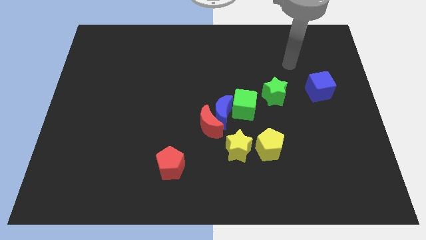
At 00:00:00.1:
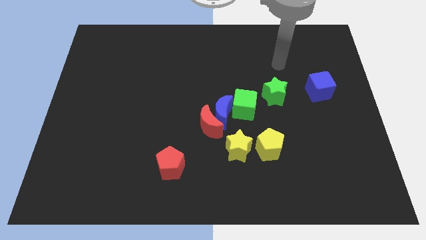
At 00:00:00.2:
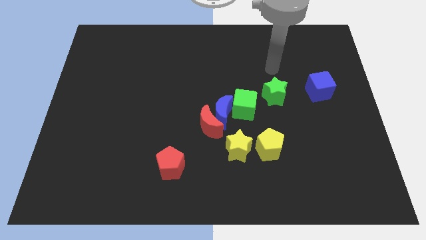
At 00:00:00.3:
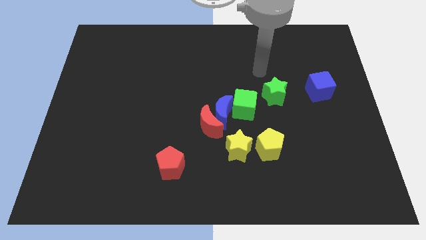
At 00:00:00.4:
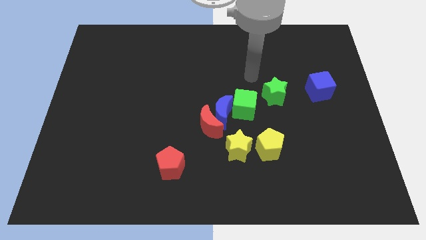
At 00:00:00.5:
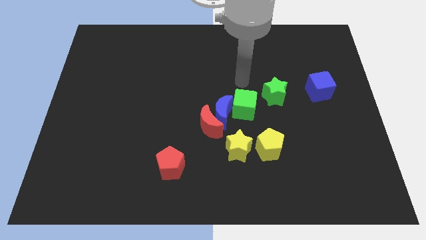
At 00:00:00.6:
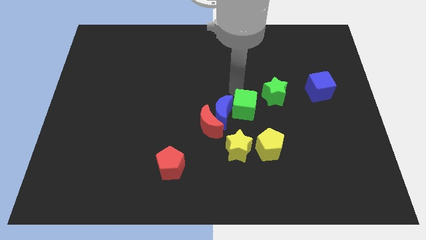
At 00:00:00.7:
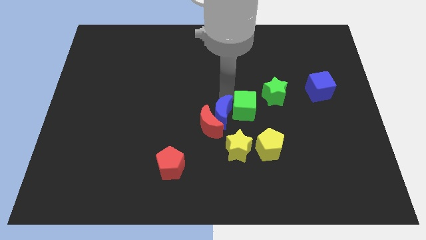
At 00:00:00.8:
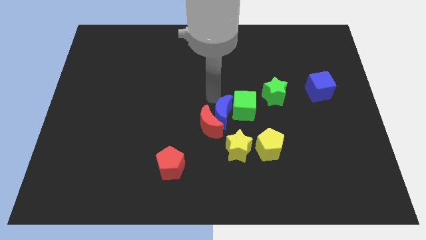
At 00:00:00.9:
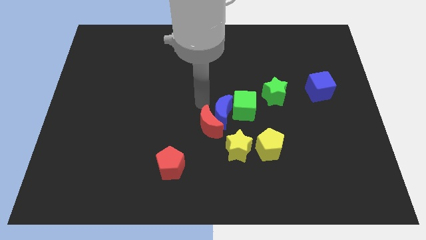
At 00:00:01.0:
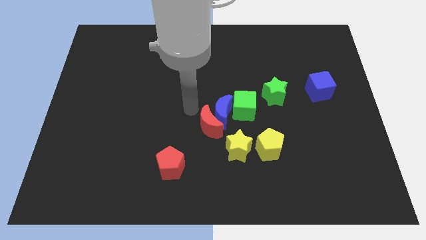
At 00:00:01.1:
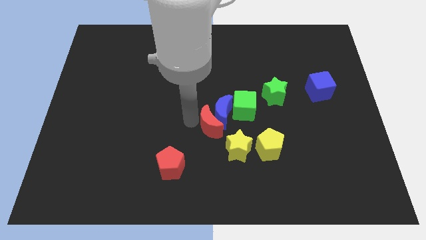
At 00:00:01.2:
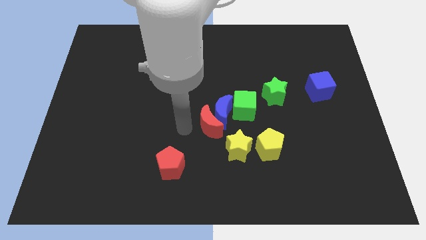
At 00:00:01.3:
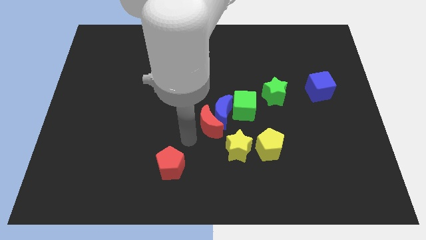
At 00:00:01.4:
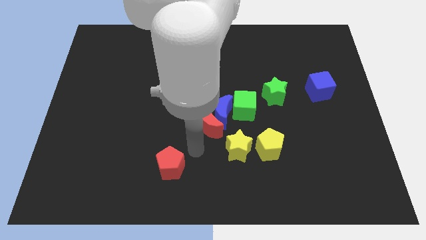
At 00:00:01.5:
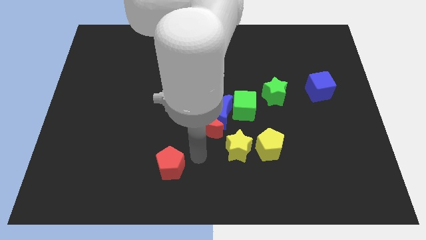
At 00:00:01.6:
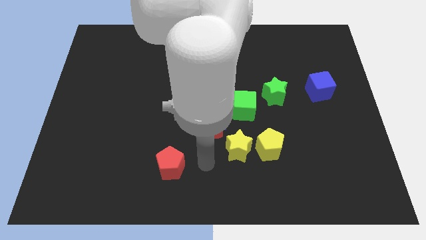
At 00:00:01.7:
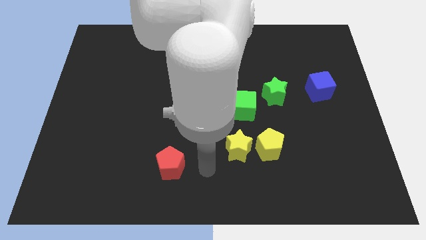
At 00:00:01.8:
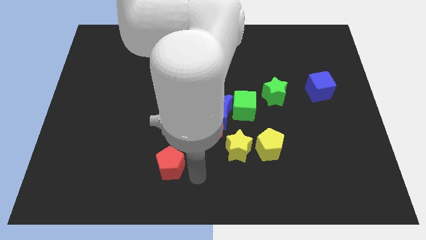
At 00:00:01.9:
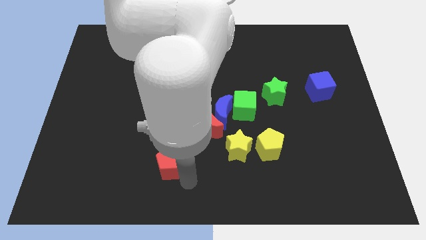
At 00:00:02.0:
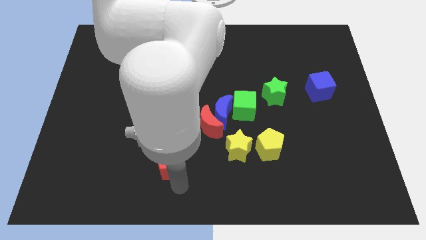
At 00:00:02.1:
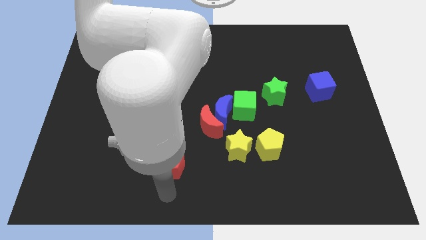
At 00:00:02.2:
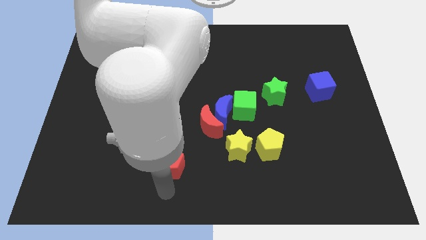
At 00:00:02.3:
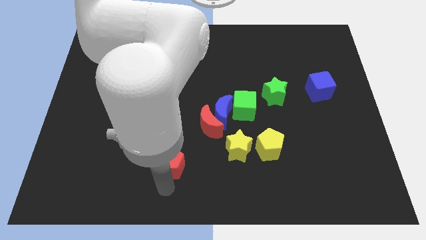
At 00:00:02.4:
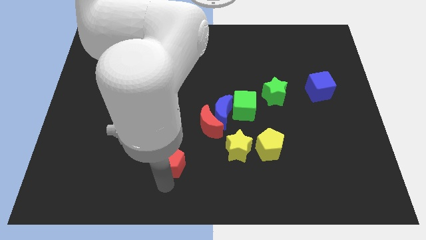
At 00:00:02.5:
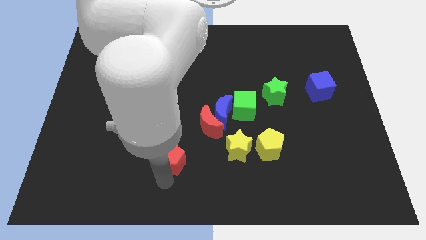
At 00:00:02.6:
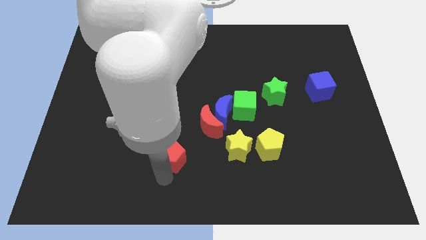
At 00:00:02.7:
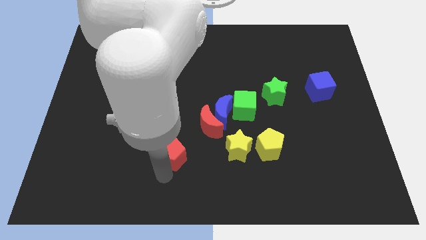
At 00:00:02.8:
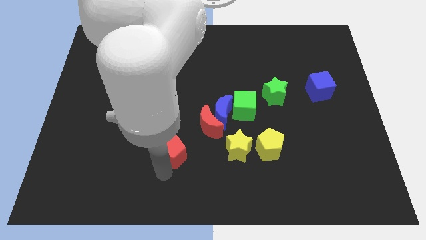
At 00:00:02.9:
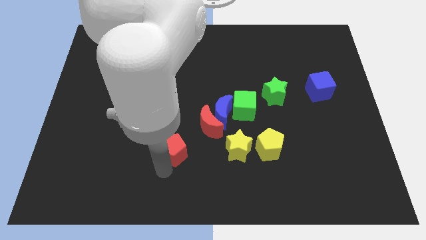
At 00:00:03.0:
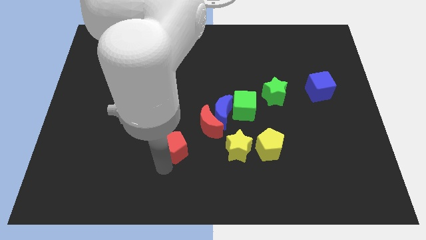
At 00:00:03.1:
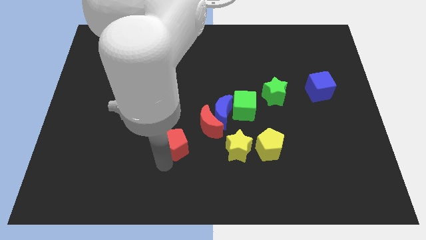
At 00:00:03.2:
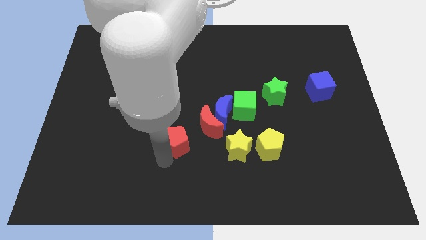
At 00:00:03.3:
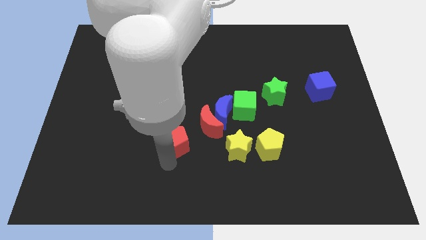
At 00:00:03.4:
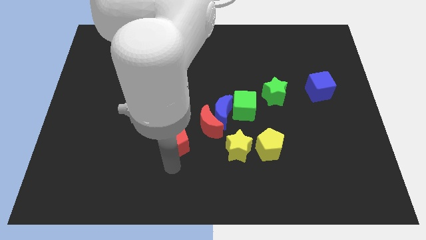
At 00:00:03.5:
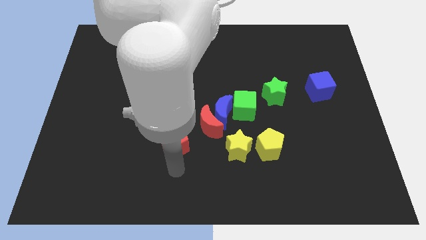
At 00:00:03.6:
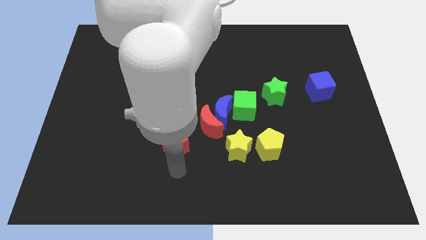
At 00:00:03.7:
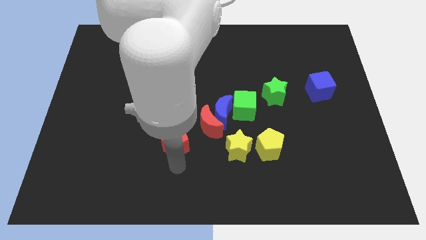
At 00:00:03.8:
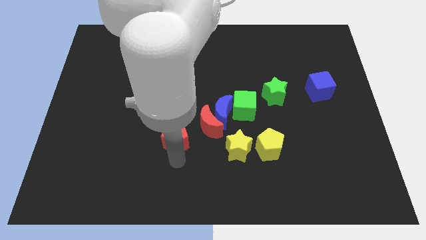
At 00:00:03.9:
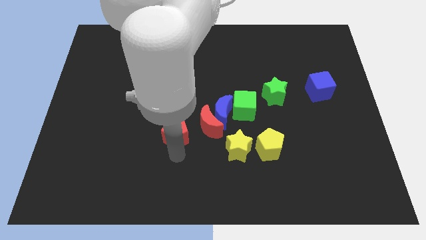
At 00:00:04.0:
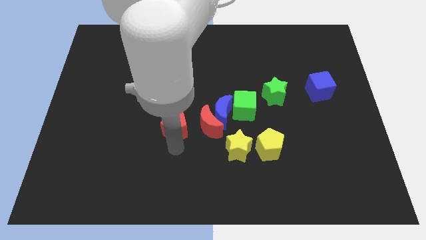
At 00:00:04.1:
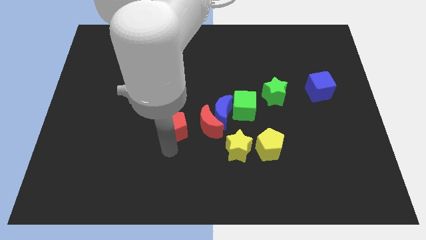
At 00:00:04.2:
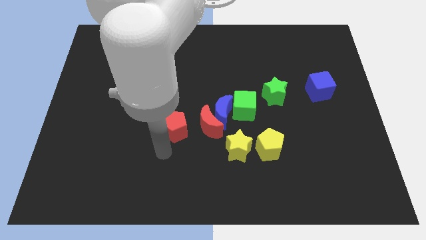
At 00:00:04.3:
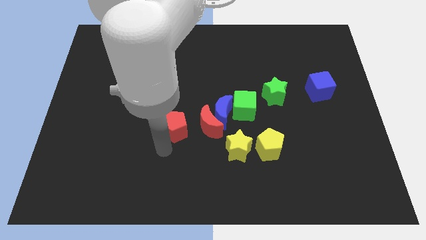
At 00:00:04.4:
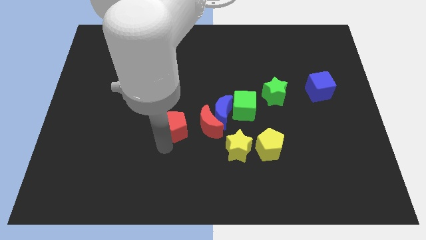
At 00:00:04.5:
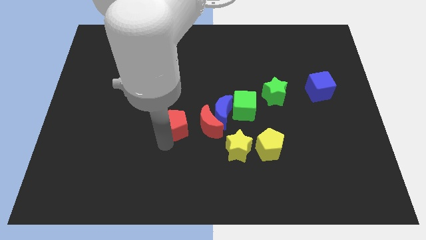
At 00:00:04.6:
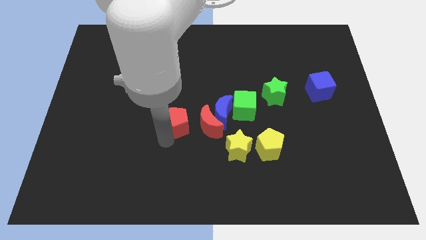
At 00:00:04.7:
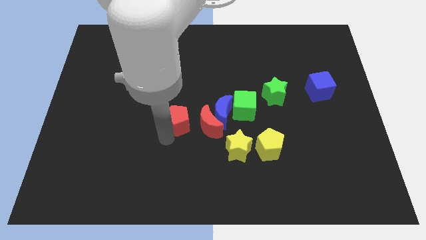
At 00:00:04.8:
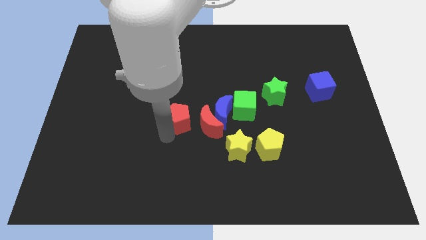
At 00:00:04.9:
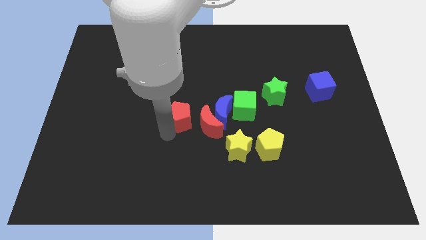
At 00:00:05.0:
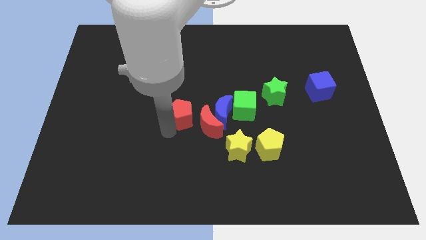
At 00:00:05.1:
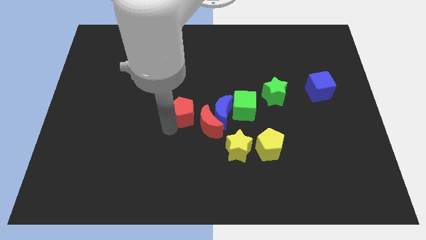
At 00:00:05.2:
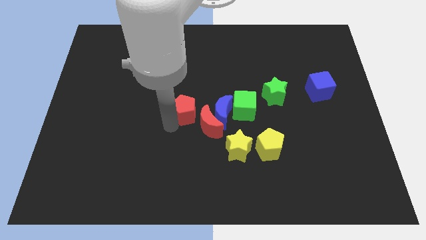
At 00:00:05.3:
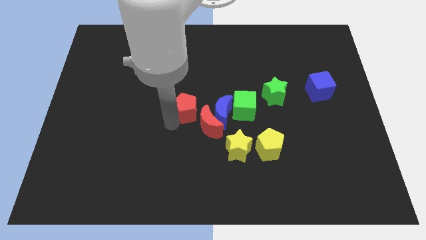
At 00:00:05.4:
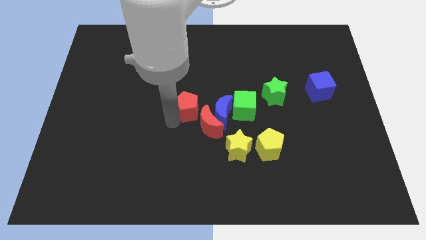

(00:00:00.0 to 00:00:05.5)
slide the red pentagon to the top side of the red moon

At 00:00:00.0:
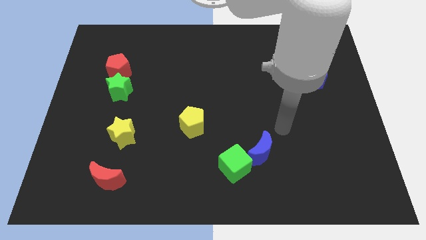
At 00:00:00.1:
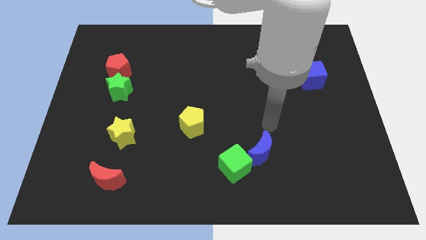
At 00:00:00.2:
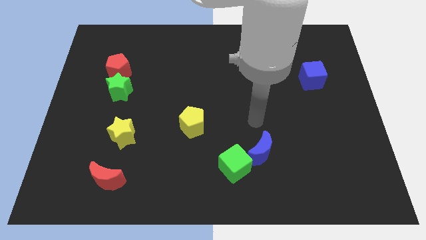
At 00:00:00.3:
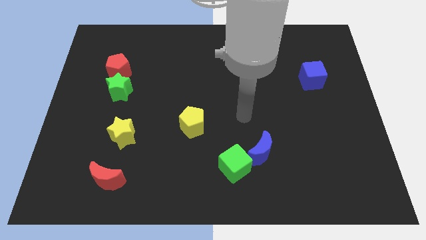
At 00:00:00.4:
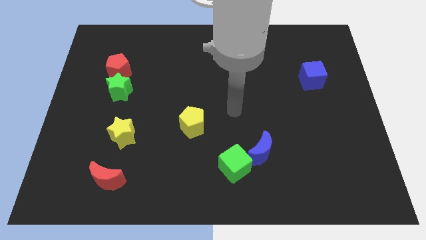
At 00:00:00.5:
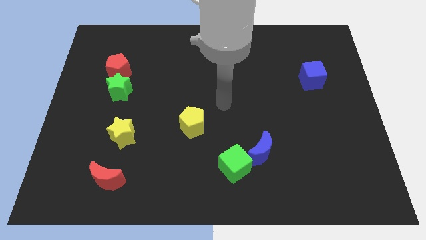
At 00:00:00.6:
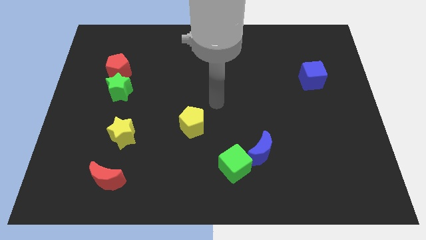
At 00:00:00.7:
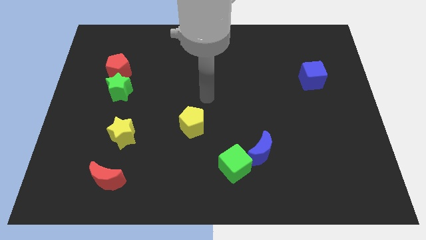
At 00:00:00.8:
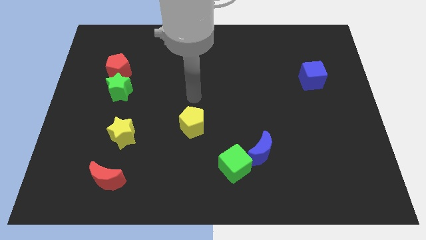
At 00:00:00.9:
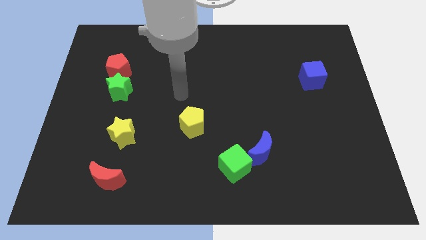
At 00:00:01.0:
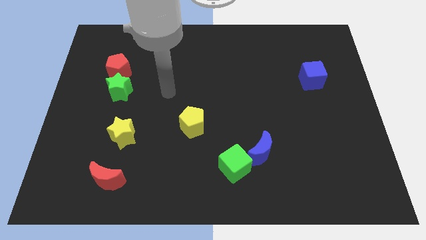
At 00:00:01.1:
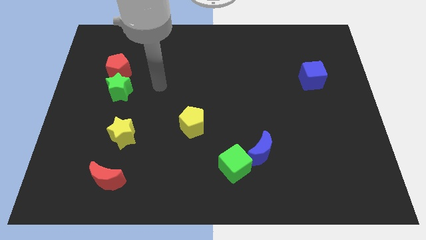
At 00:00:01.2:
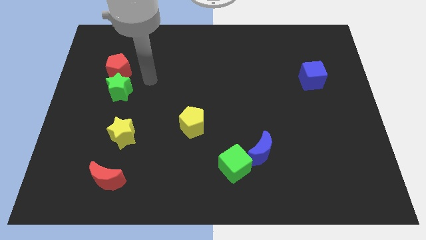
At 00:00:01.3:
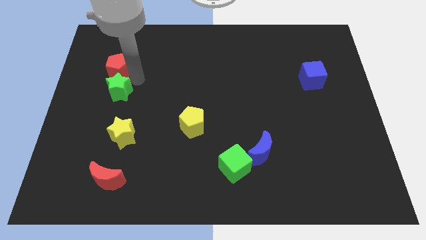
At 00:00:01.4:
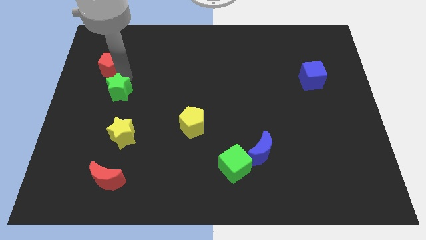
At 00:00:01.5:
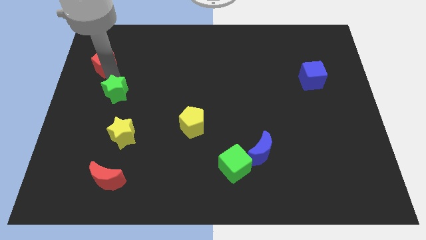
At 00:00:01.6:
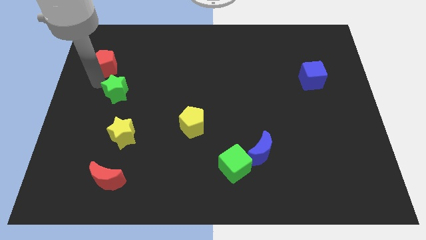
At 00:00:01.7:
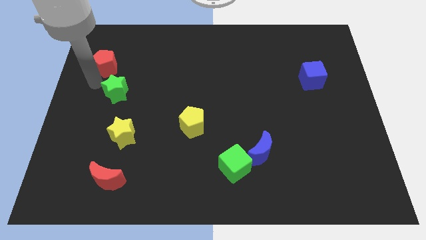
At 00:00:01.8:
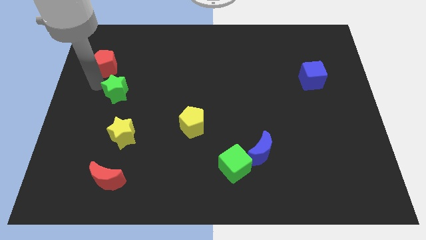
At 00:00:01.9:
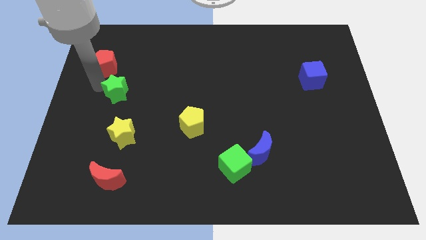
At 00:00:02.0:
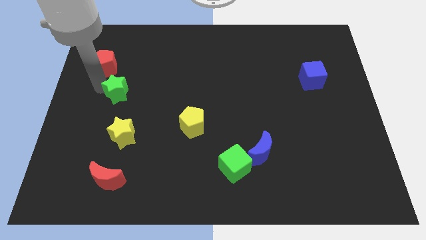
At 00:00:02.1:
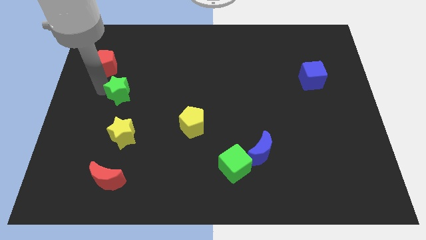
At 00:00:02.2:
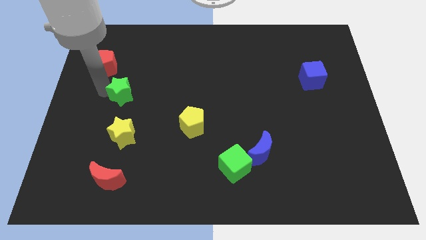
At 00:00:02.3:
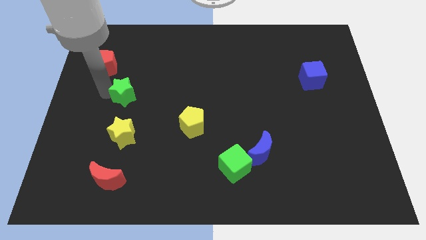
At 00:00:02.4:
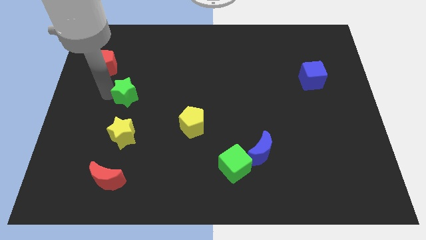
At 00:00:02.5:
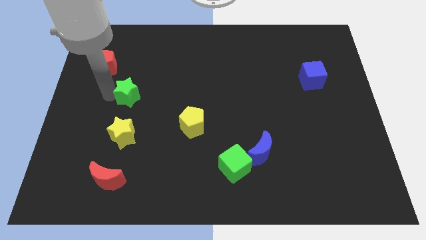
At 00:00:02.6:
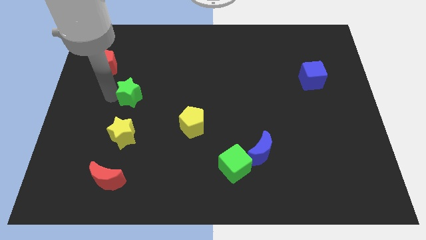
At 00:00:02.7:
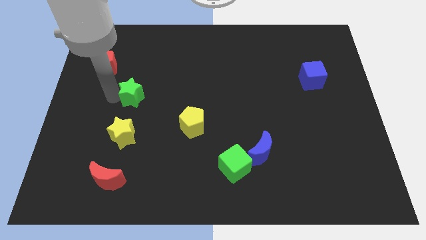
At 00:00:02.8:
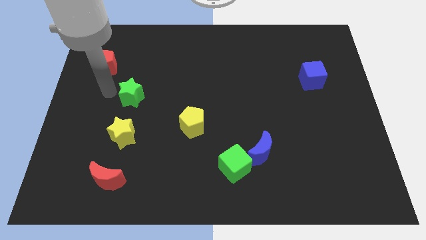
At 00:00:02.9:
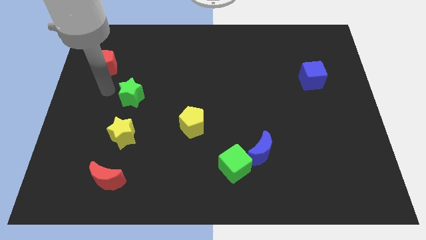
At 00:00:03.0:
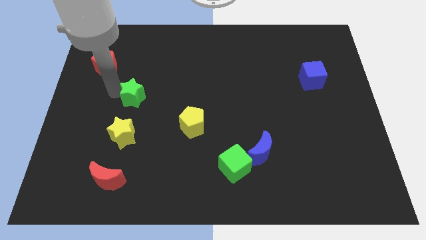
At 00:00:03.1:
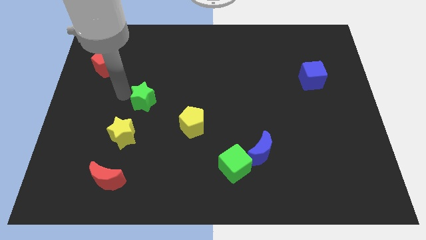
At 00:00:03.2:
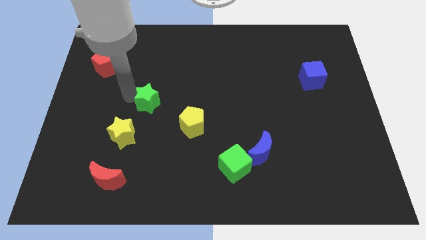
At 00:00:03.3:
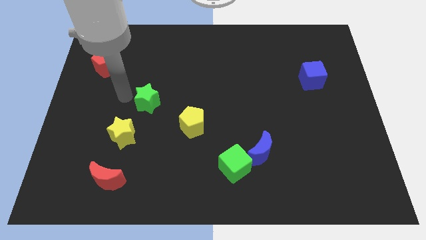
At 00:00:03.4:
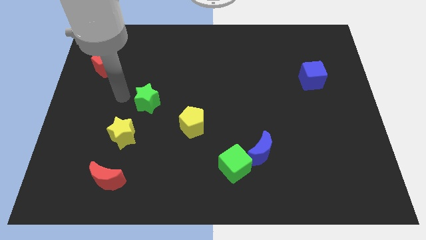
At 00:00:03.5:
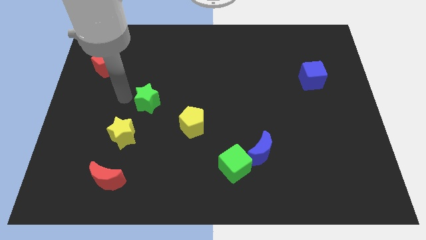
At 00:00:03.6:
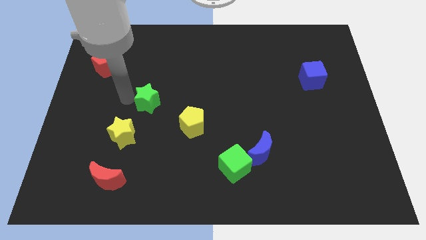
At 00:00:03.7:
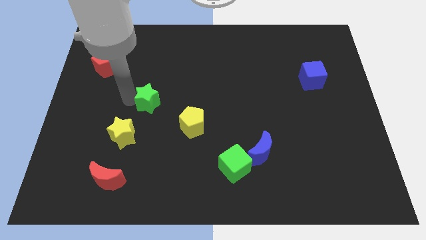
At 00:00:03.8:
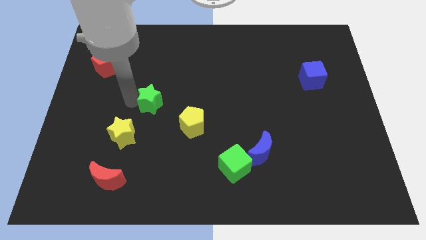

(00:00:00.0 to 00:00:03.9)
move the green star to the top left side of the yellow pentagon
